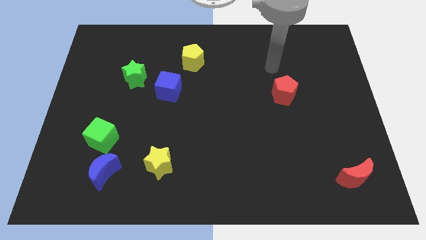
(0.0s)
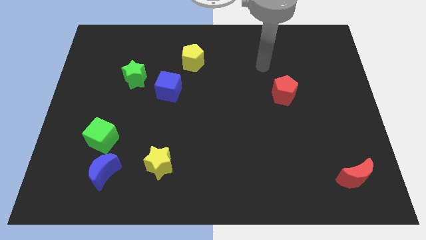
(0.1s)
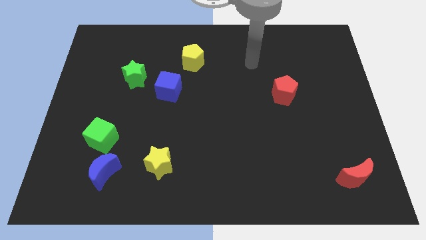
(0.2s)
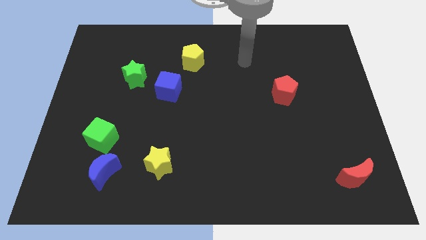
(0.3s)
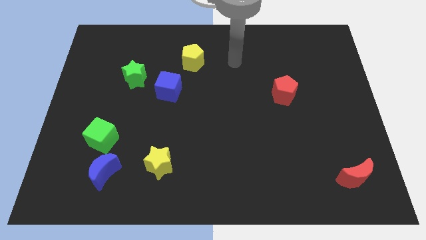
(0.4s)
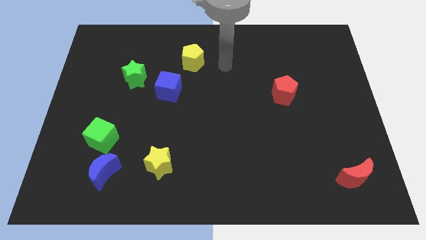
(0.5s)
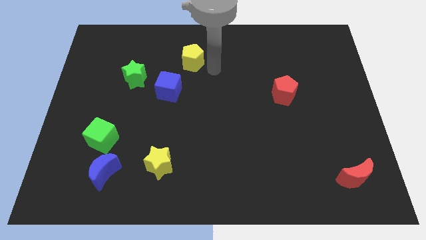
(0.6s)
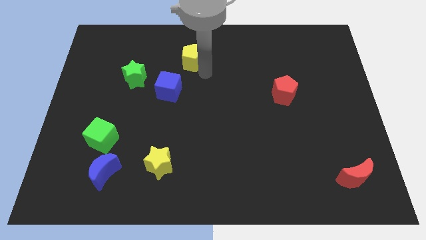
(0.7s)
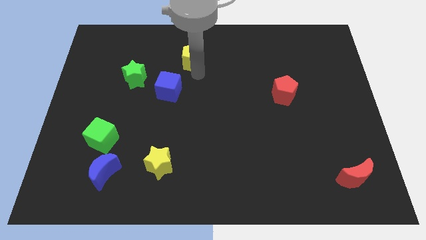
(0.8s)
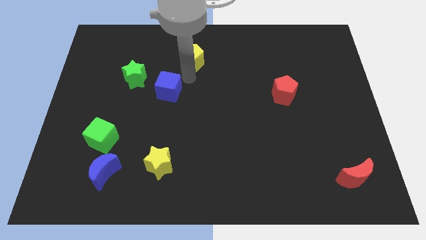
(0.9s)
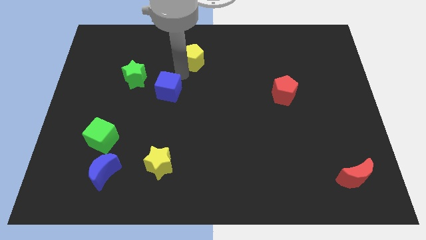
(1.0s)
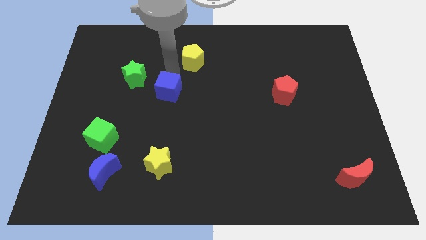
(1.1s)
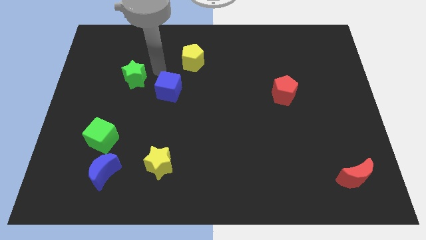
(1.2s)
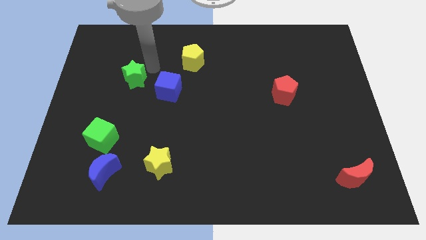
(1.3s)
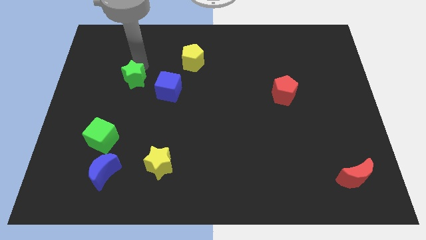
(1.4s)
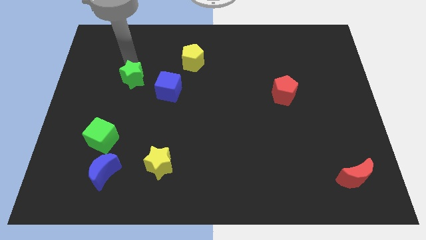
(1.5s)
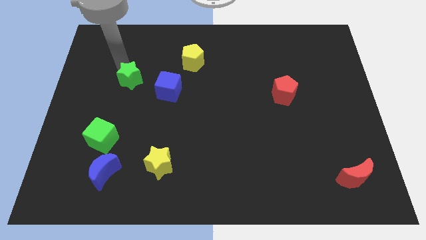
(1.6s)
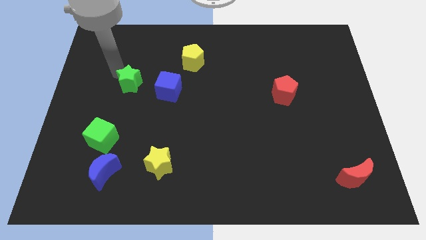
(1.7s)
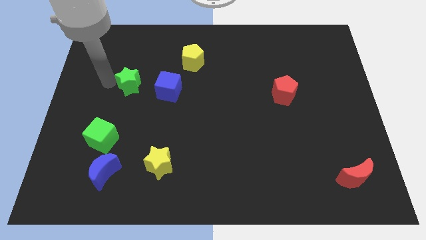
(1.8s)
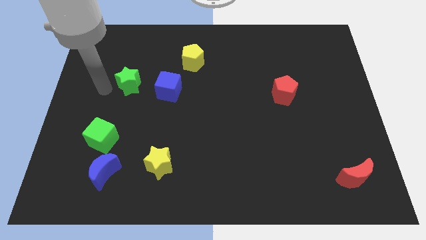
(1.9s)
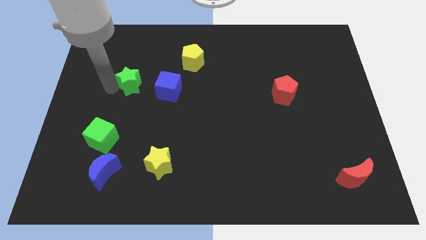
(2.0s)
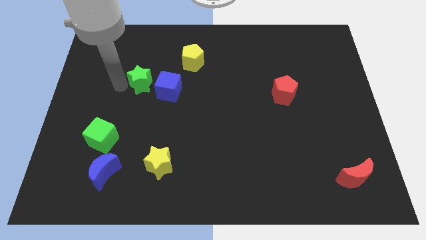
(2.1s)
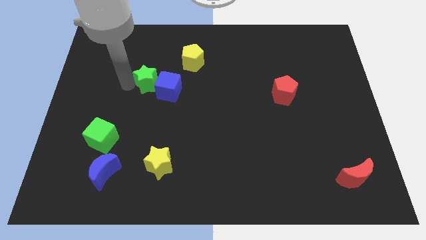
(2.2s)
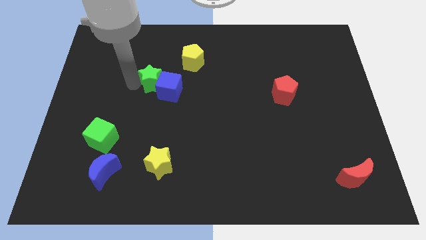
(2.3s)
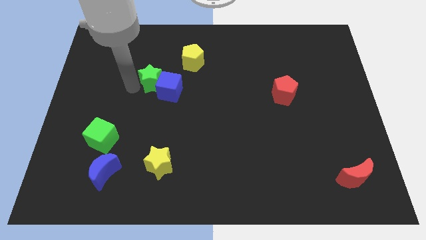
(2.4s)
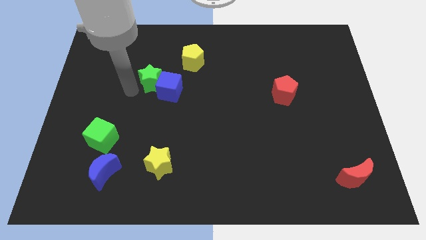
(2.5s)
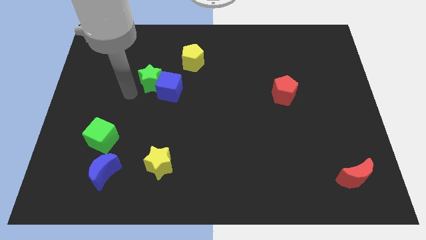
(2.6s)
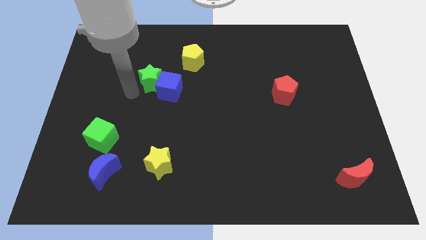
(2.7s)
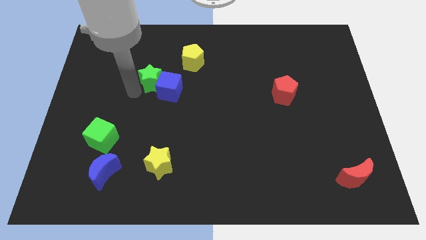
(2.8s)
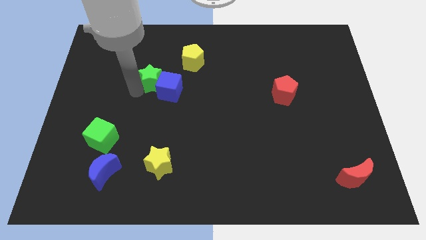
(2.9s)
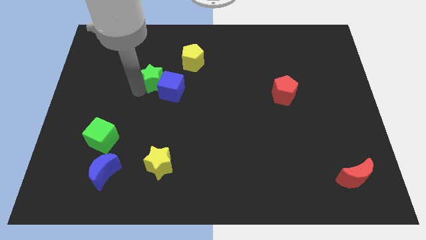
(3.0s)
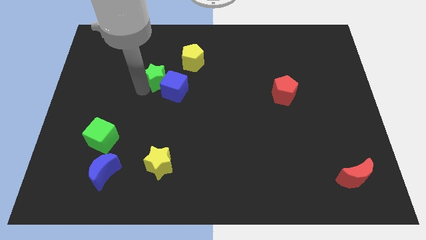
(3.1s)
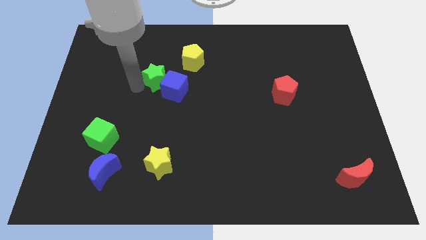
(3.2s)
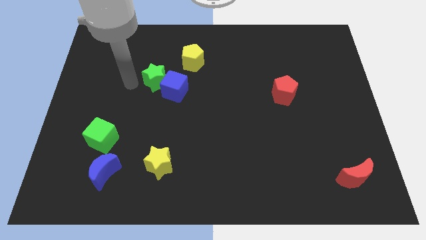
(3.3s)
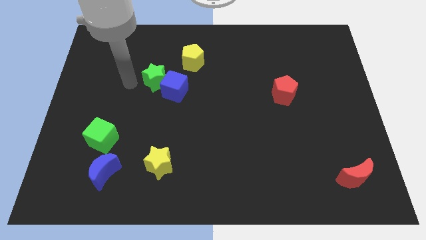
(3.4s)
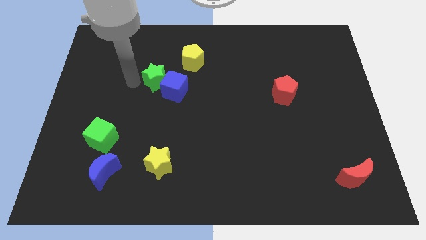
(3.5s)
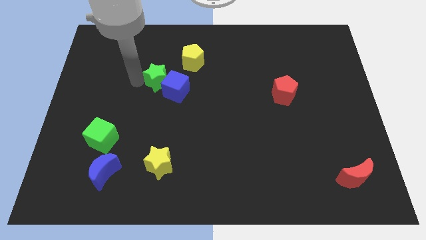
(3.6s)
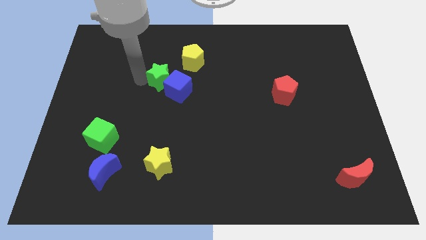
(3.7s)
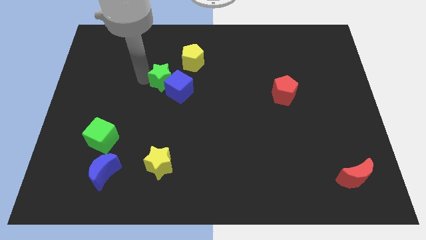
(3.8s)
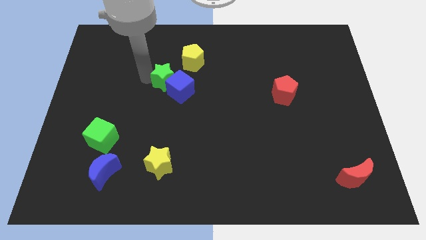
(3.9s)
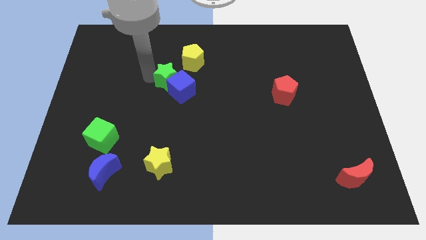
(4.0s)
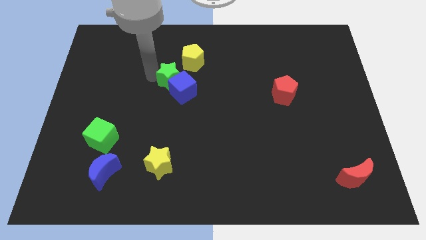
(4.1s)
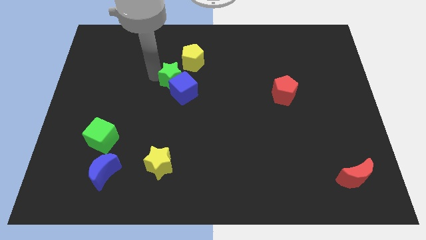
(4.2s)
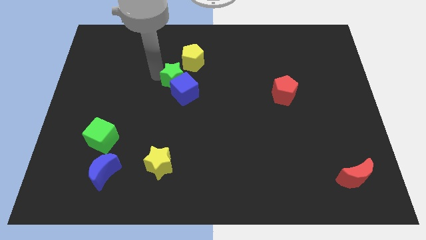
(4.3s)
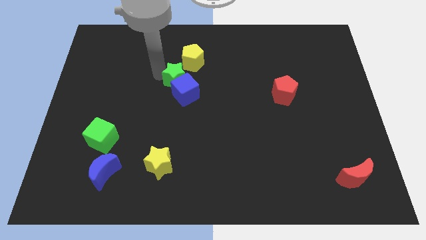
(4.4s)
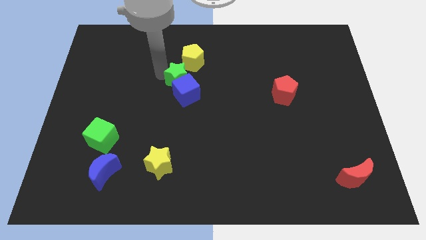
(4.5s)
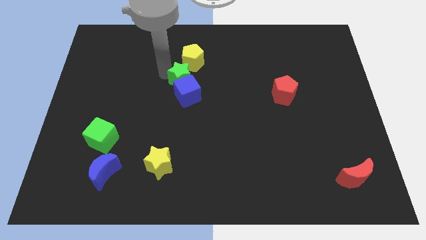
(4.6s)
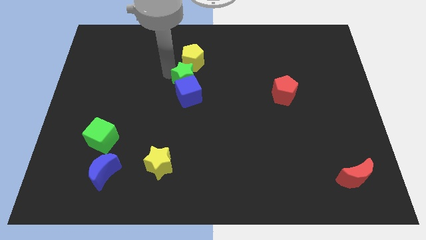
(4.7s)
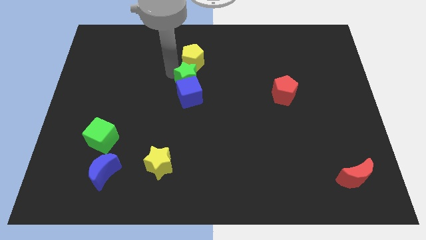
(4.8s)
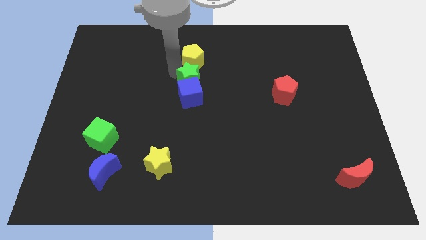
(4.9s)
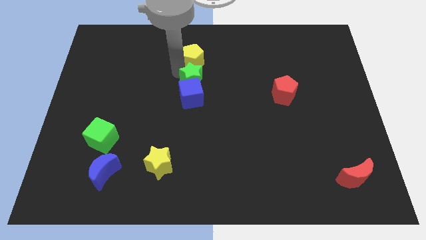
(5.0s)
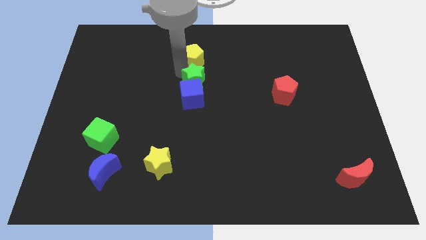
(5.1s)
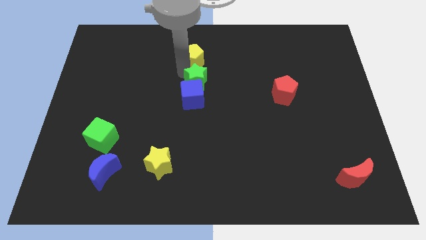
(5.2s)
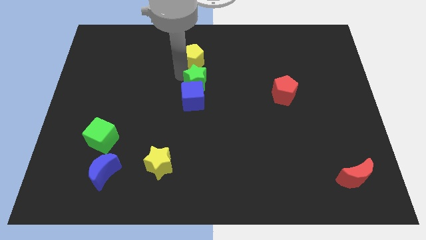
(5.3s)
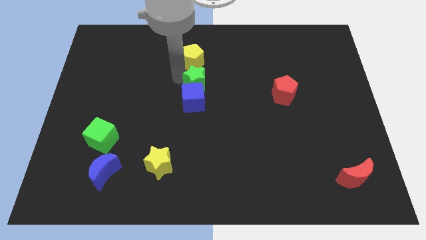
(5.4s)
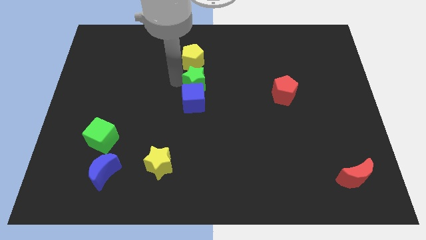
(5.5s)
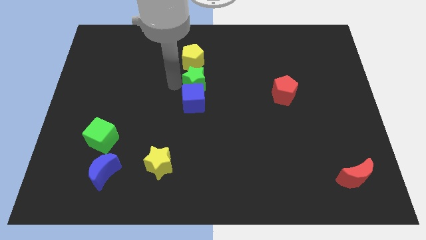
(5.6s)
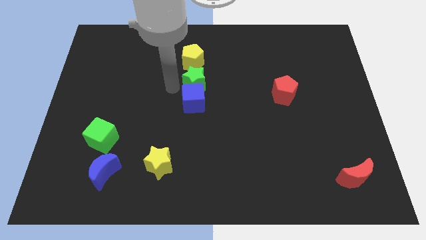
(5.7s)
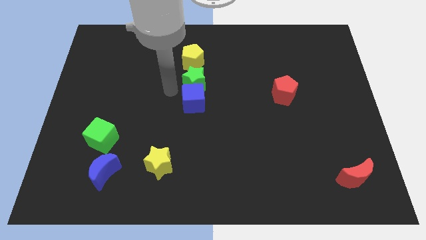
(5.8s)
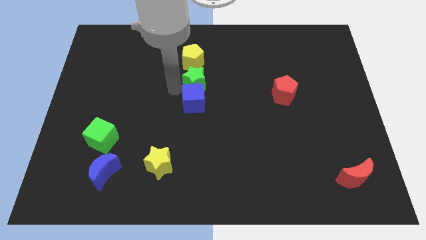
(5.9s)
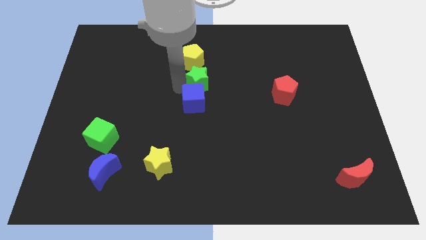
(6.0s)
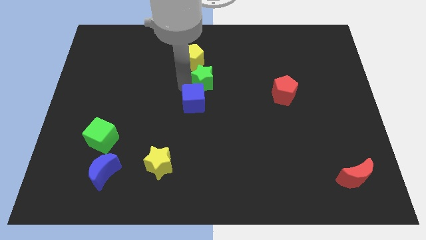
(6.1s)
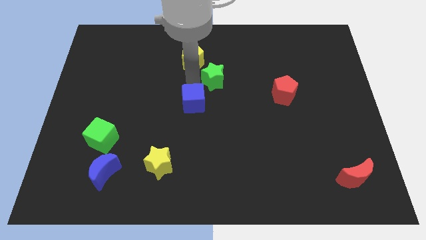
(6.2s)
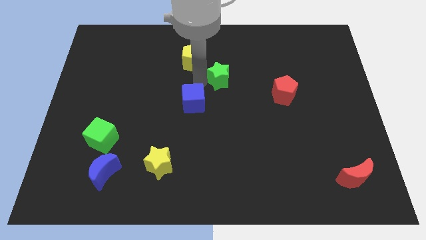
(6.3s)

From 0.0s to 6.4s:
push the green star to the right

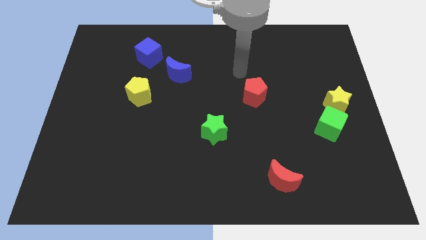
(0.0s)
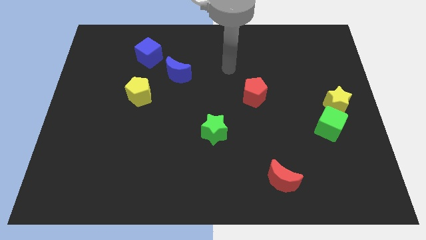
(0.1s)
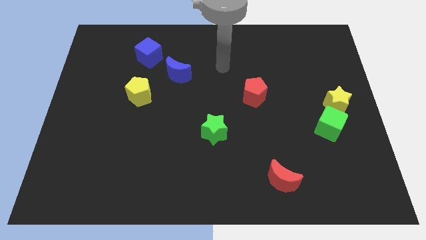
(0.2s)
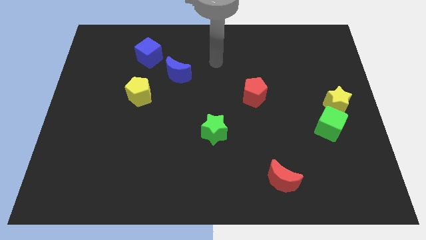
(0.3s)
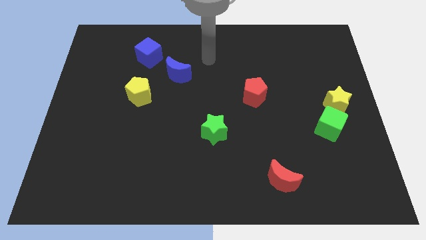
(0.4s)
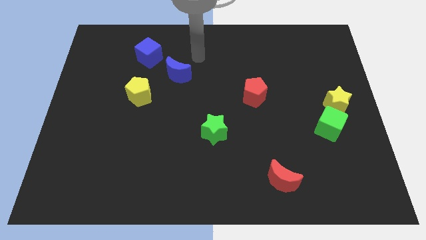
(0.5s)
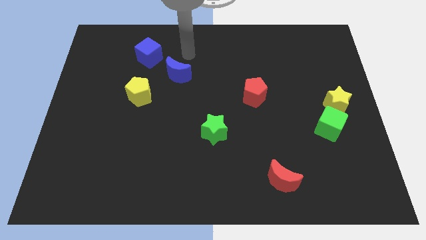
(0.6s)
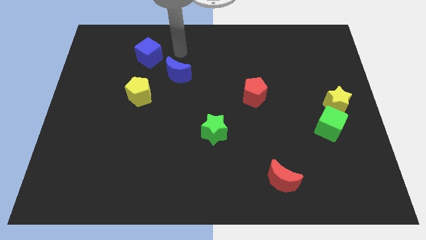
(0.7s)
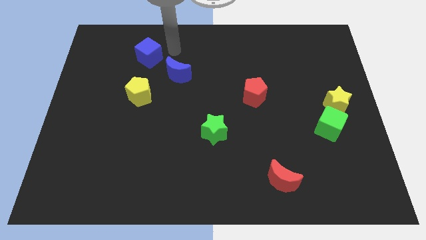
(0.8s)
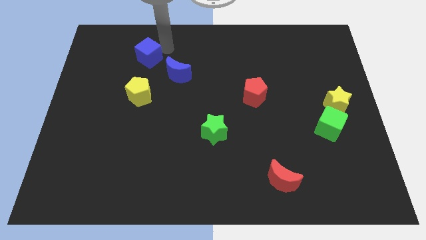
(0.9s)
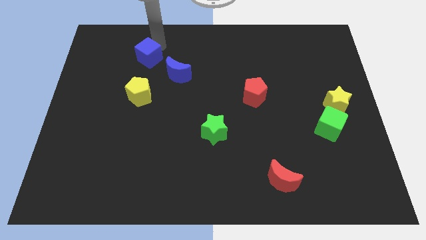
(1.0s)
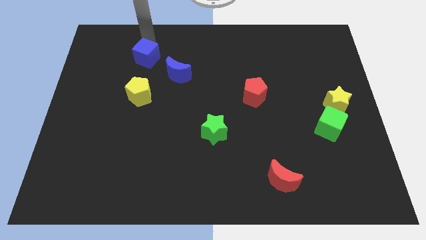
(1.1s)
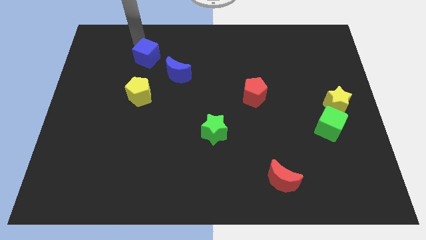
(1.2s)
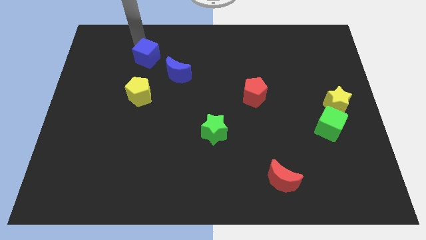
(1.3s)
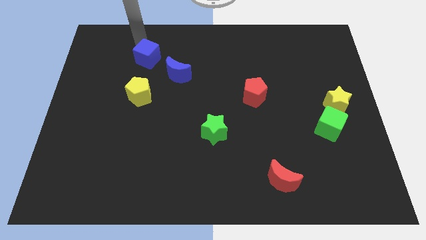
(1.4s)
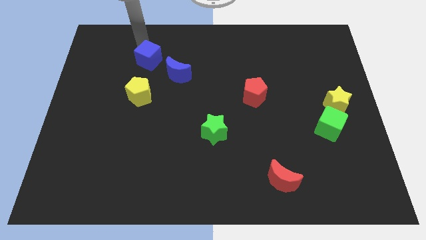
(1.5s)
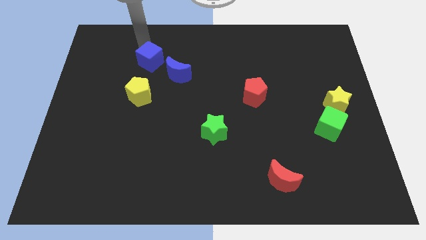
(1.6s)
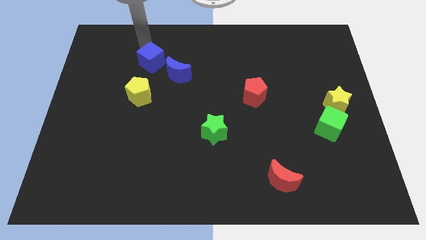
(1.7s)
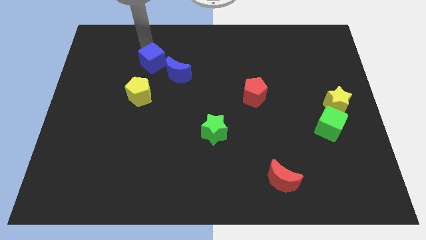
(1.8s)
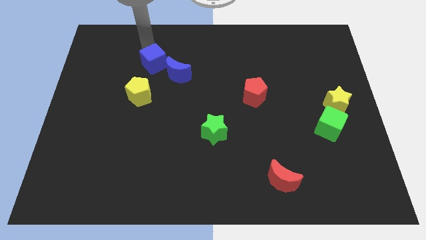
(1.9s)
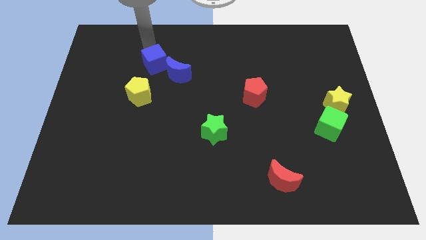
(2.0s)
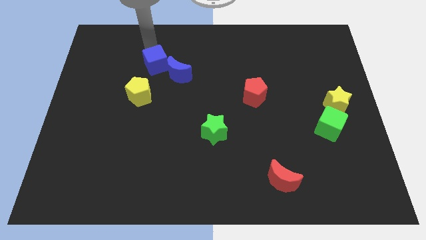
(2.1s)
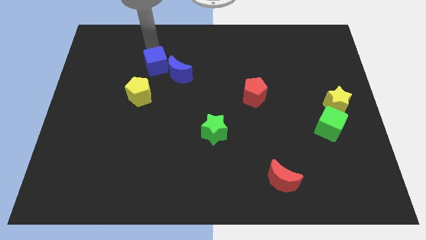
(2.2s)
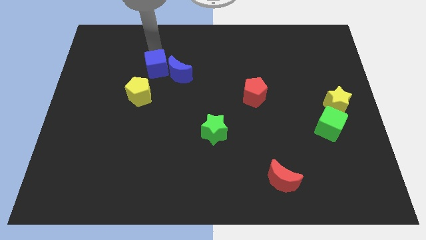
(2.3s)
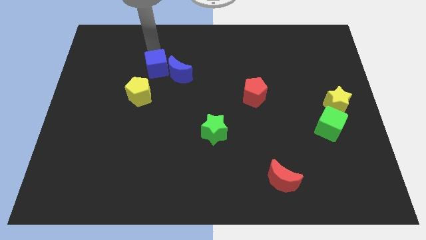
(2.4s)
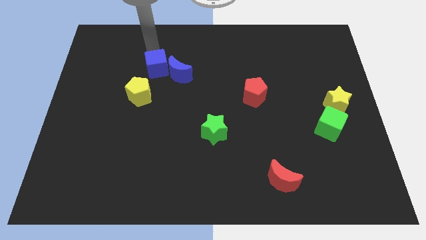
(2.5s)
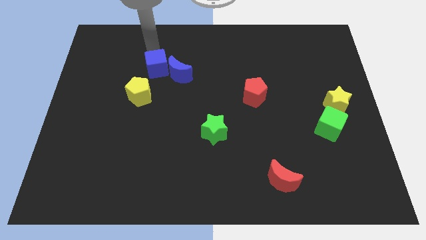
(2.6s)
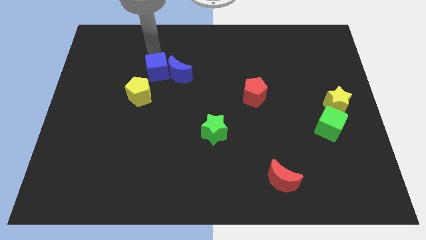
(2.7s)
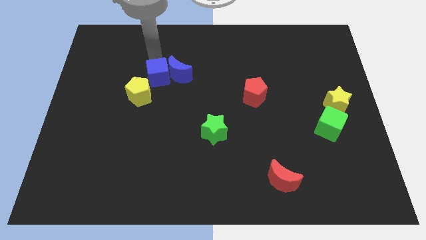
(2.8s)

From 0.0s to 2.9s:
slightly move the blue cube downwards and to the right
